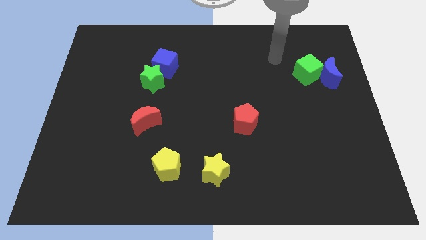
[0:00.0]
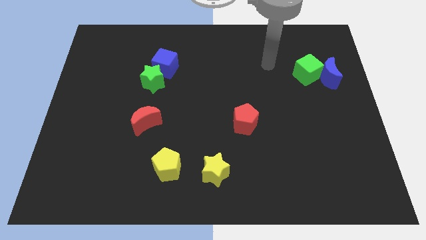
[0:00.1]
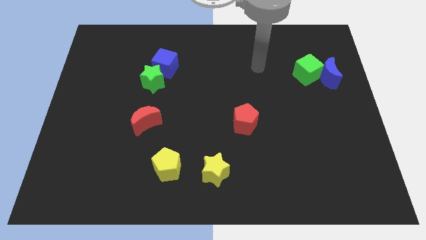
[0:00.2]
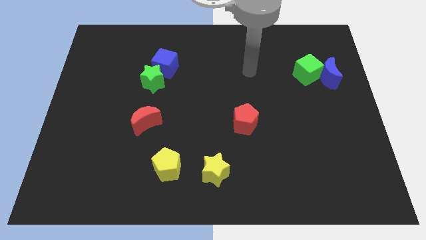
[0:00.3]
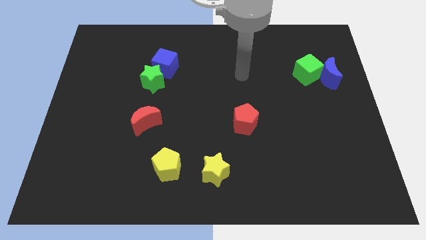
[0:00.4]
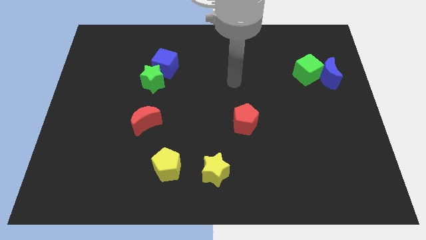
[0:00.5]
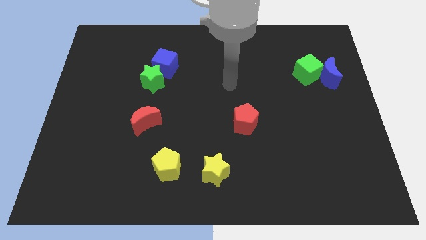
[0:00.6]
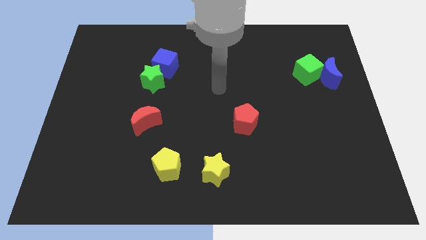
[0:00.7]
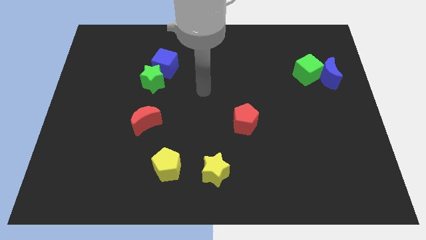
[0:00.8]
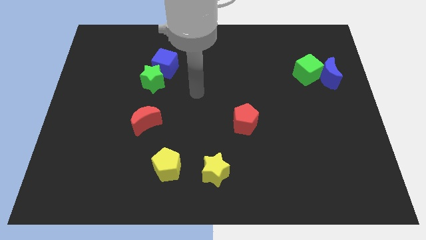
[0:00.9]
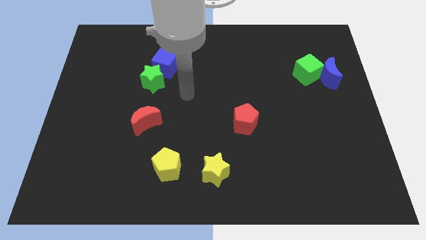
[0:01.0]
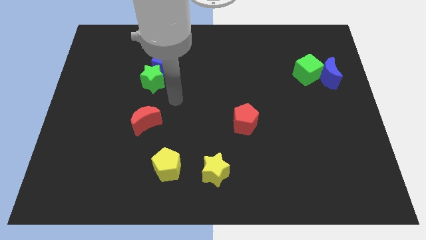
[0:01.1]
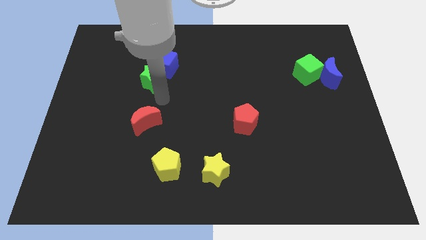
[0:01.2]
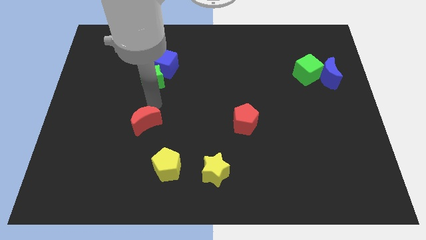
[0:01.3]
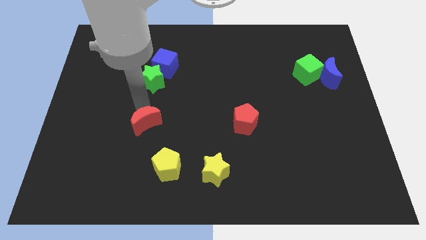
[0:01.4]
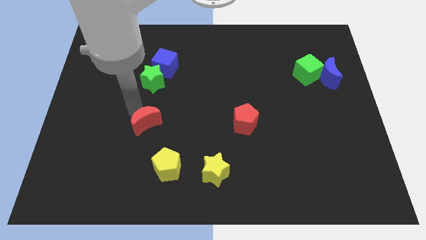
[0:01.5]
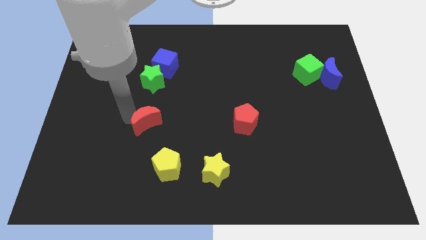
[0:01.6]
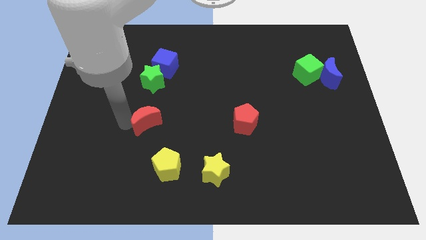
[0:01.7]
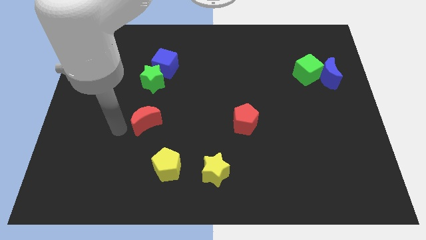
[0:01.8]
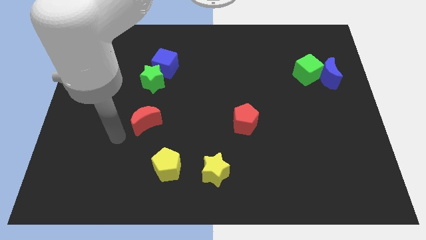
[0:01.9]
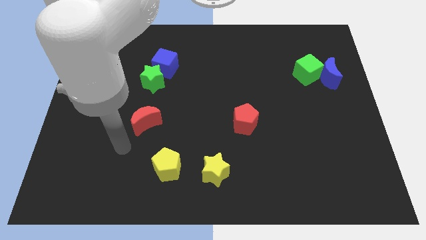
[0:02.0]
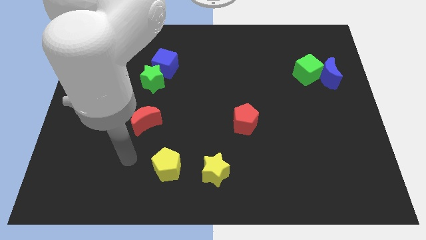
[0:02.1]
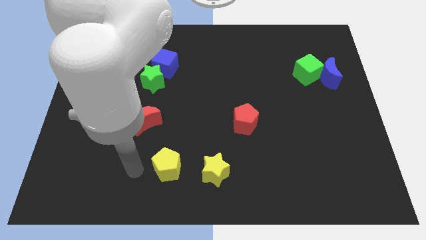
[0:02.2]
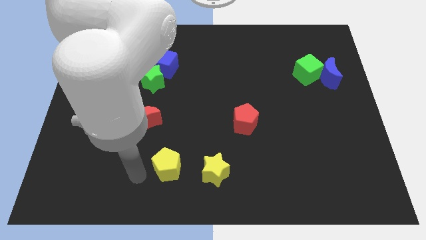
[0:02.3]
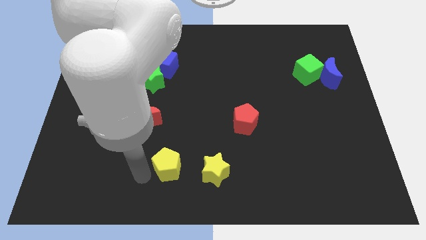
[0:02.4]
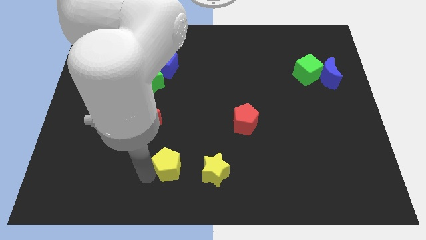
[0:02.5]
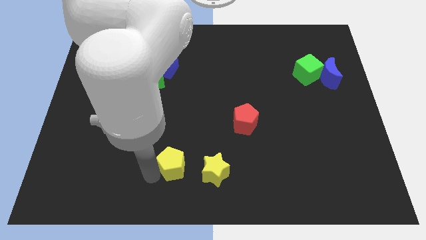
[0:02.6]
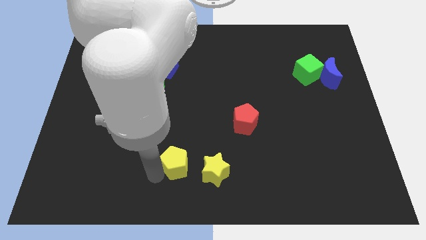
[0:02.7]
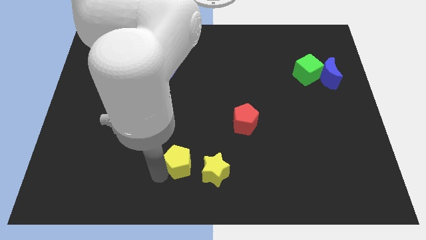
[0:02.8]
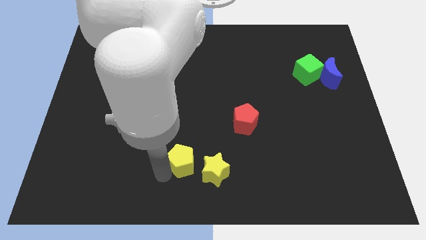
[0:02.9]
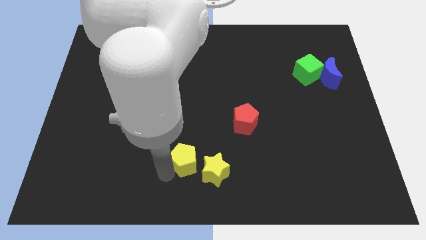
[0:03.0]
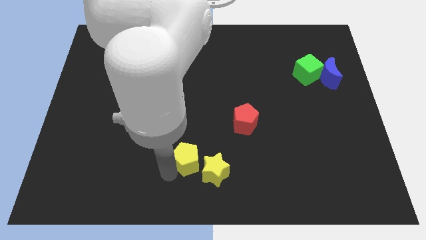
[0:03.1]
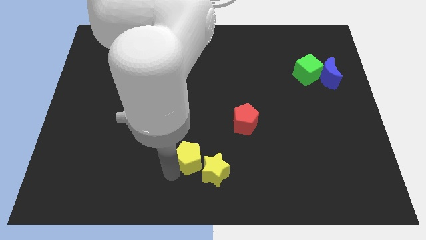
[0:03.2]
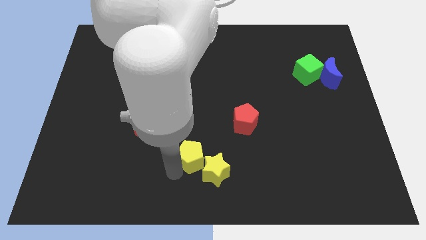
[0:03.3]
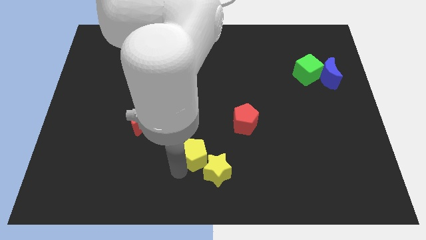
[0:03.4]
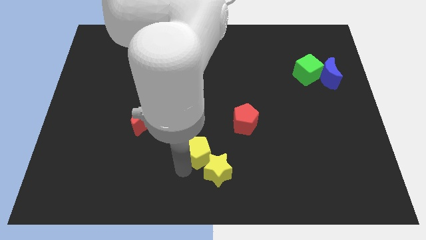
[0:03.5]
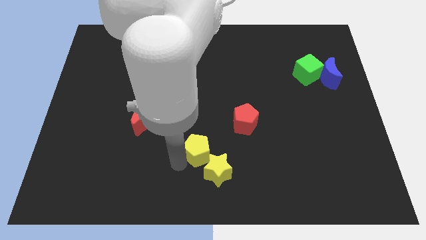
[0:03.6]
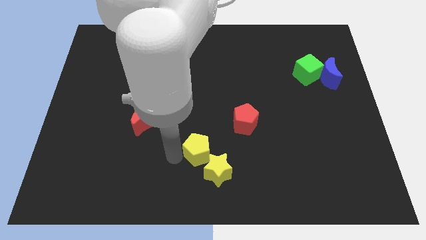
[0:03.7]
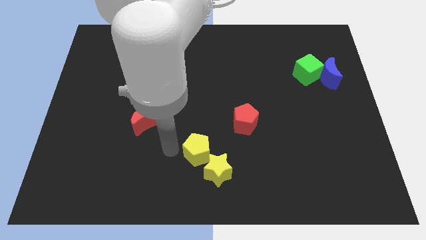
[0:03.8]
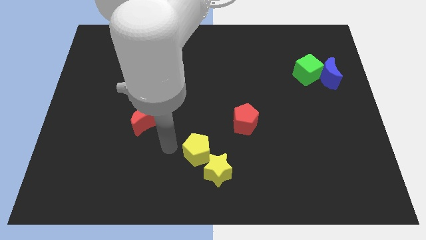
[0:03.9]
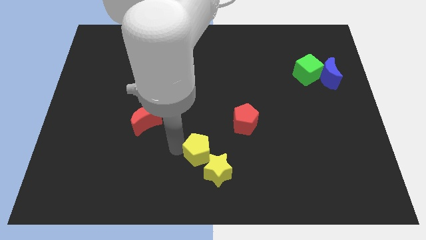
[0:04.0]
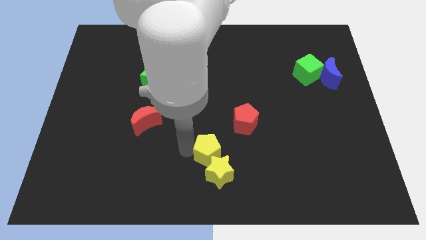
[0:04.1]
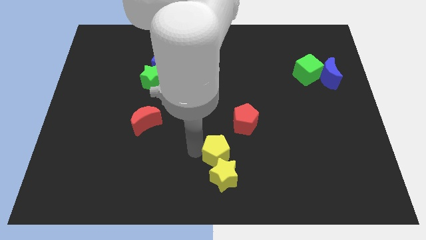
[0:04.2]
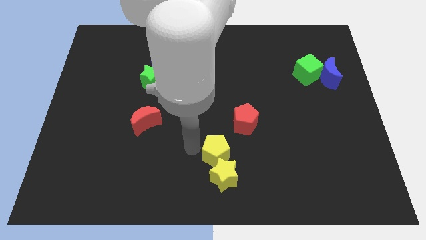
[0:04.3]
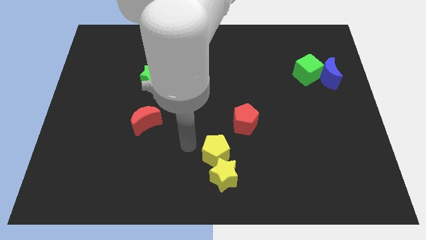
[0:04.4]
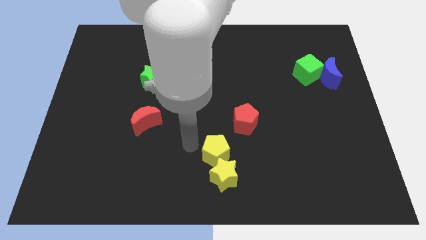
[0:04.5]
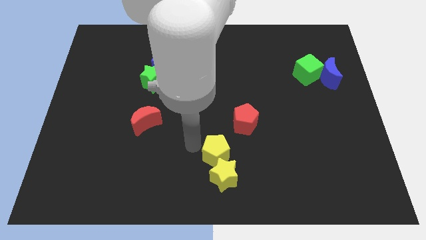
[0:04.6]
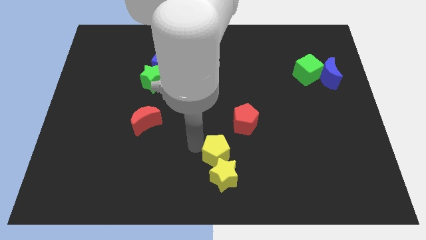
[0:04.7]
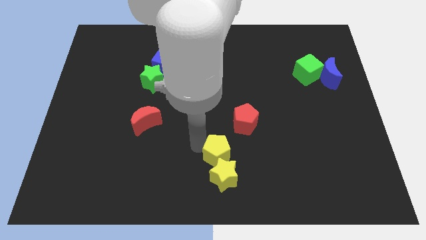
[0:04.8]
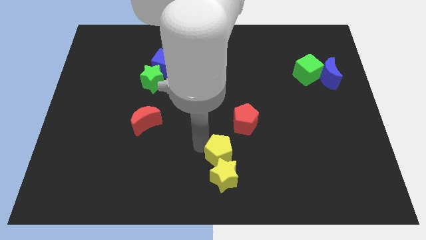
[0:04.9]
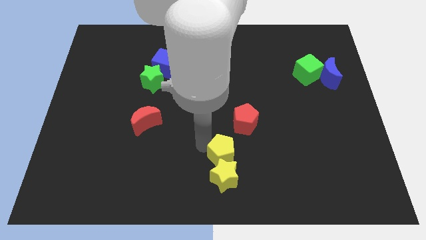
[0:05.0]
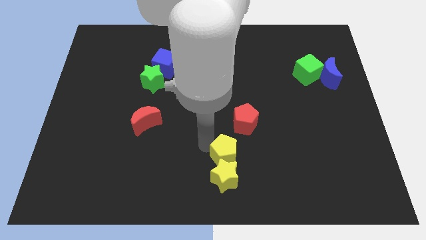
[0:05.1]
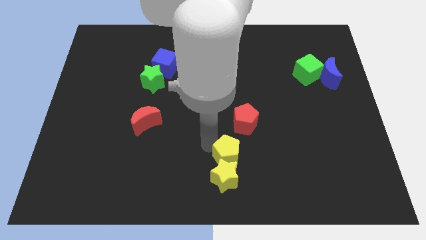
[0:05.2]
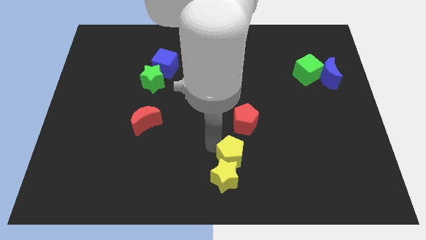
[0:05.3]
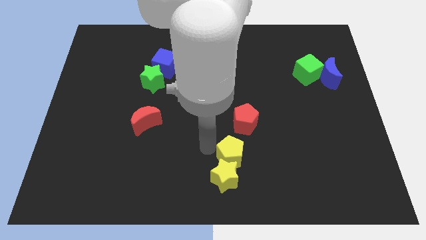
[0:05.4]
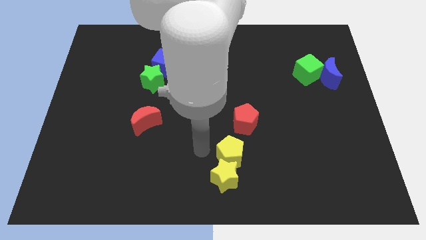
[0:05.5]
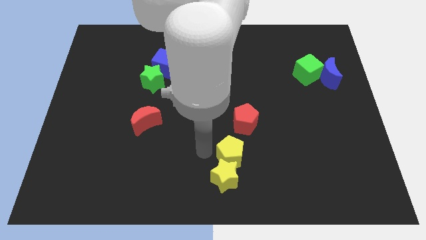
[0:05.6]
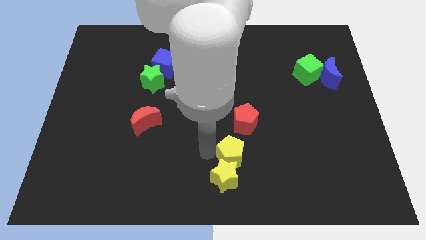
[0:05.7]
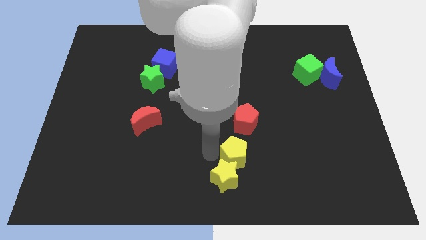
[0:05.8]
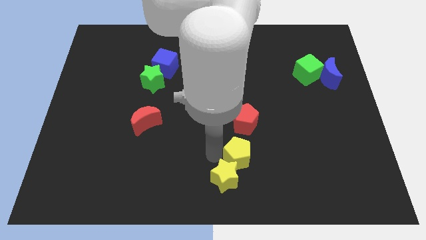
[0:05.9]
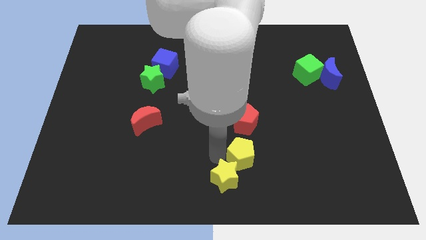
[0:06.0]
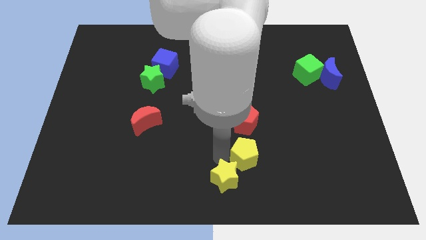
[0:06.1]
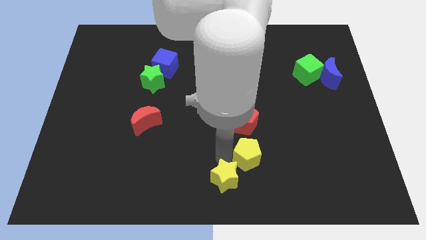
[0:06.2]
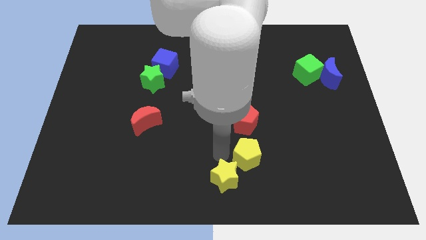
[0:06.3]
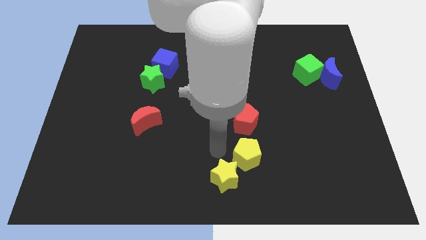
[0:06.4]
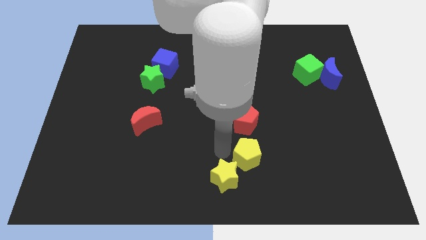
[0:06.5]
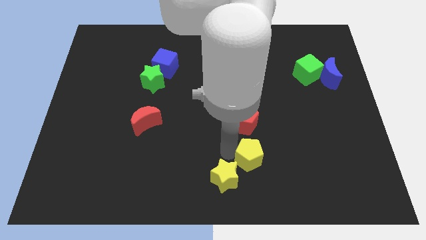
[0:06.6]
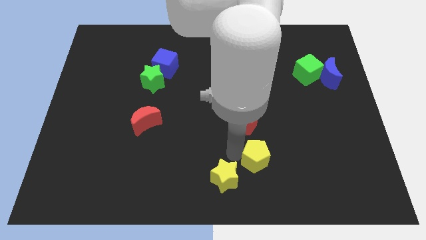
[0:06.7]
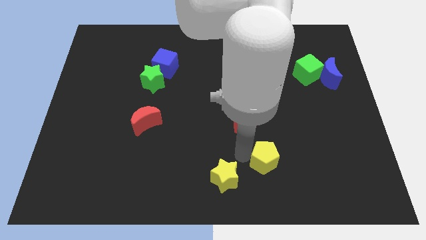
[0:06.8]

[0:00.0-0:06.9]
slide the yellow pentagon right

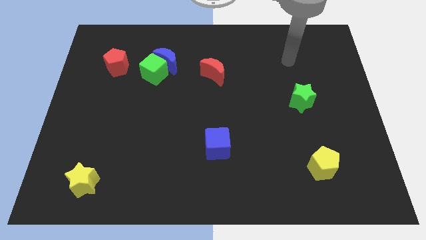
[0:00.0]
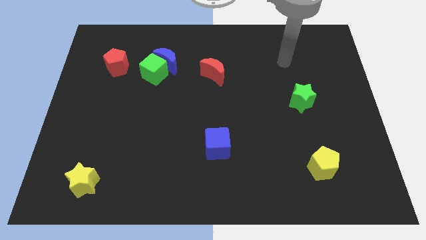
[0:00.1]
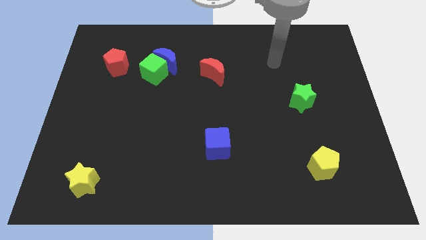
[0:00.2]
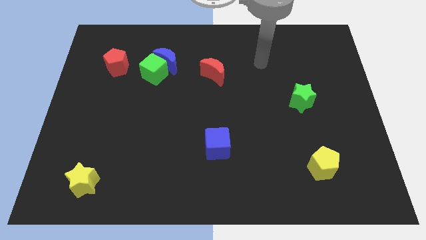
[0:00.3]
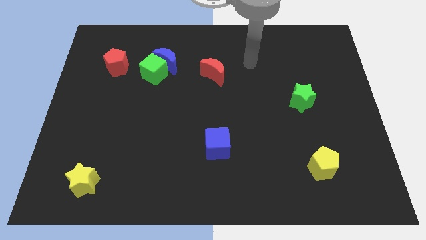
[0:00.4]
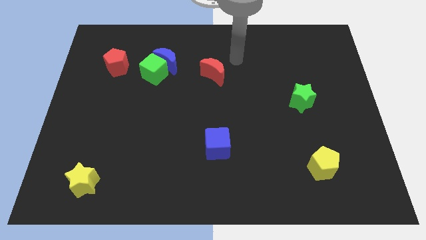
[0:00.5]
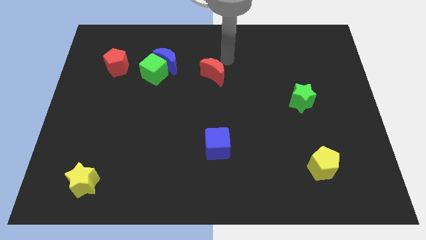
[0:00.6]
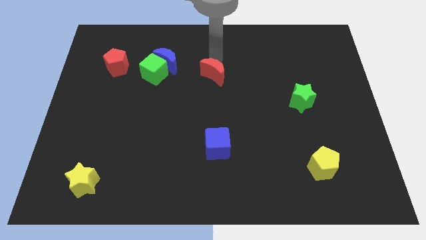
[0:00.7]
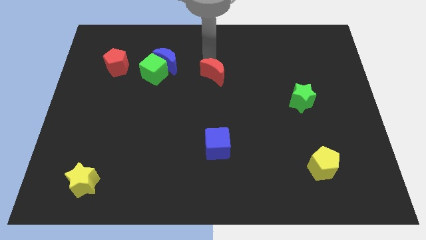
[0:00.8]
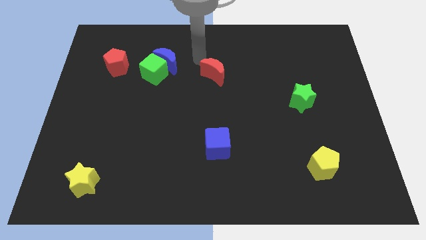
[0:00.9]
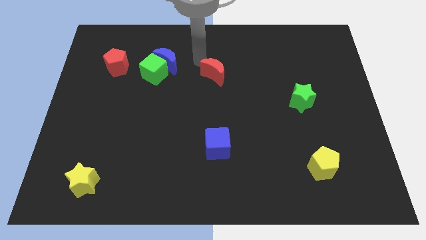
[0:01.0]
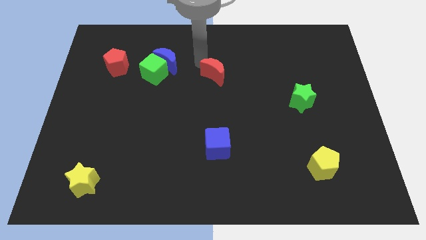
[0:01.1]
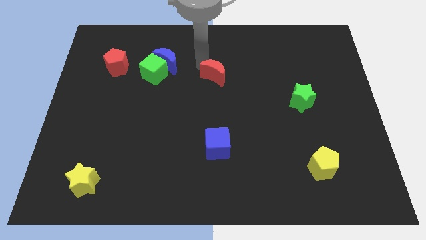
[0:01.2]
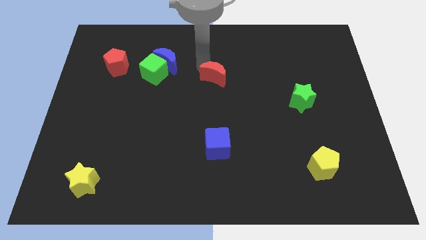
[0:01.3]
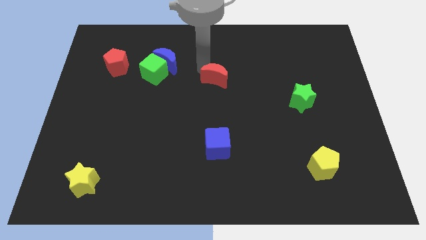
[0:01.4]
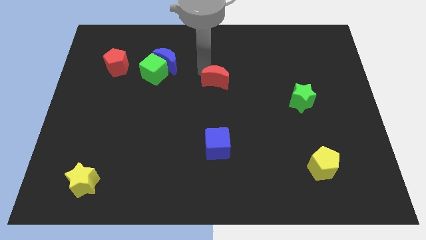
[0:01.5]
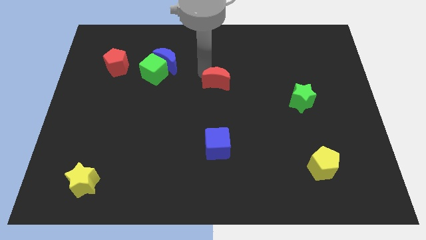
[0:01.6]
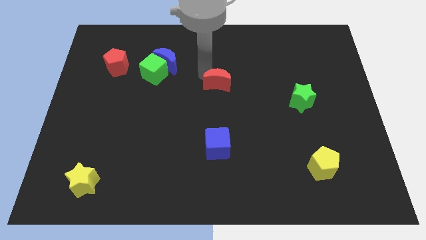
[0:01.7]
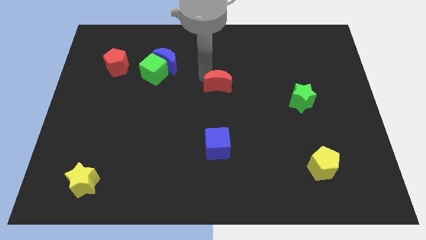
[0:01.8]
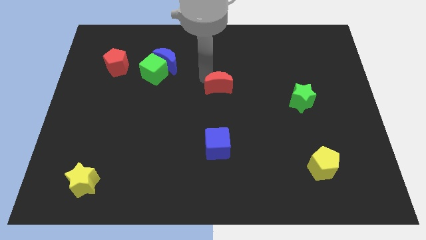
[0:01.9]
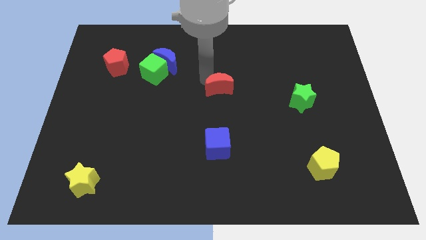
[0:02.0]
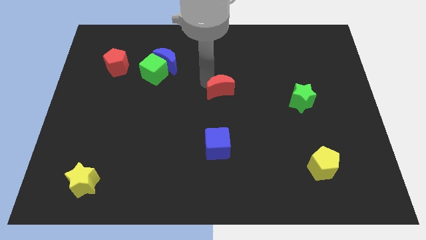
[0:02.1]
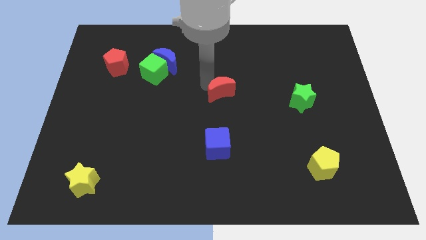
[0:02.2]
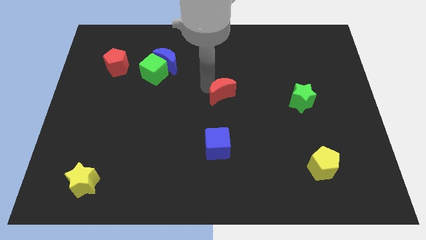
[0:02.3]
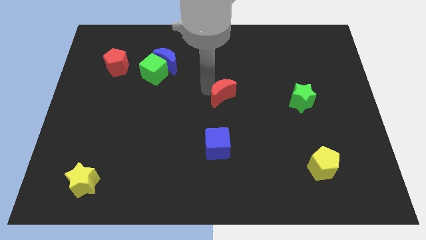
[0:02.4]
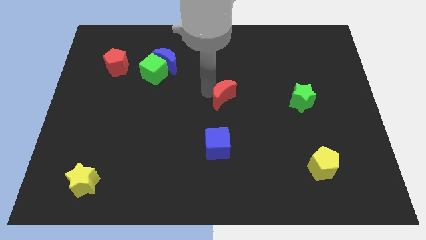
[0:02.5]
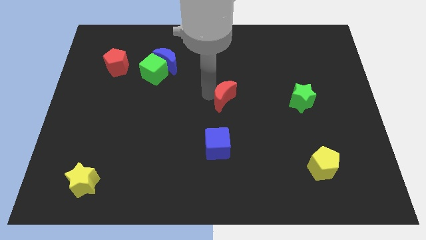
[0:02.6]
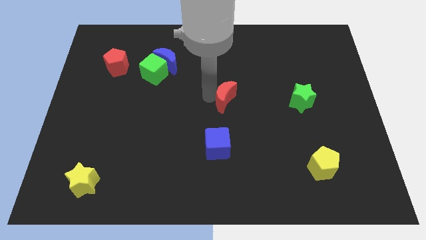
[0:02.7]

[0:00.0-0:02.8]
push the red moon a little downwards and right
